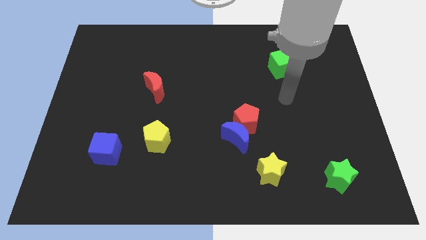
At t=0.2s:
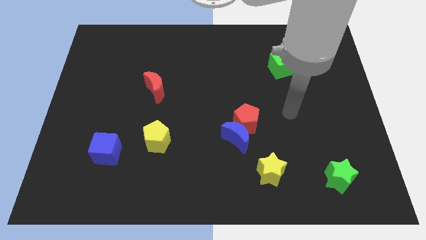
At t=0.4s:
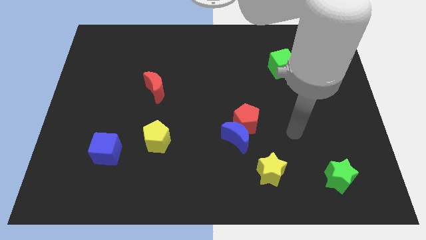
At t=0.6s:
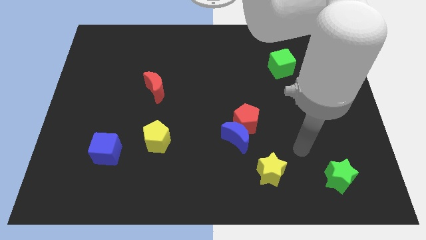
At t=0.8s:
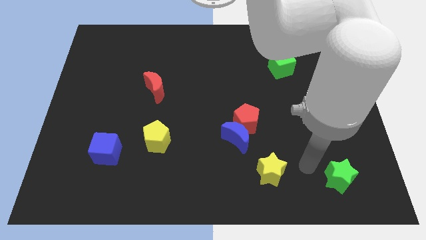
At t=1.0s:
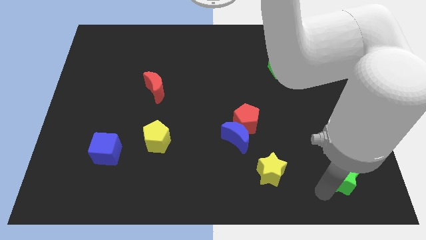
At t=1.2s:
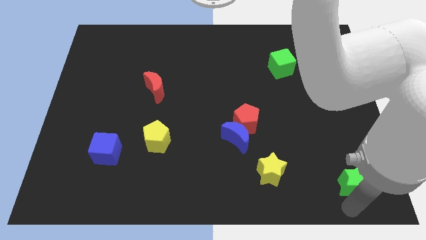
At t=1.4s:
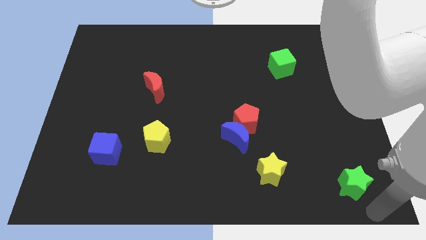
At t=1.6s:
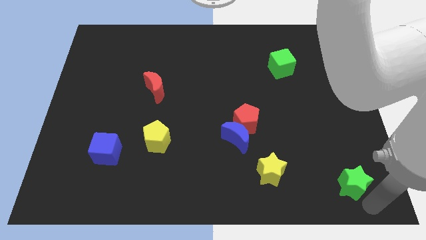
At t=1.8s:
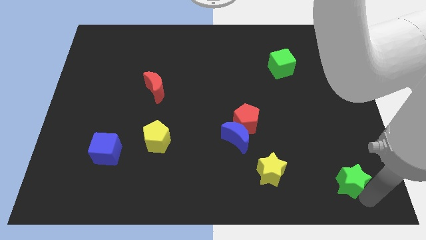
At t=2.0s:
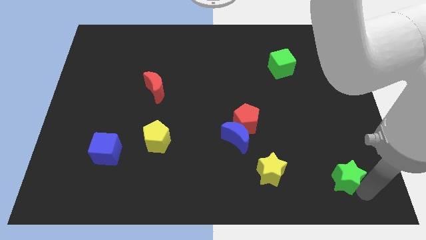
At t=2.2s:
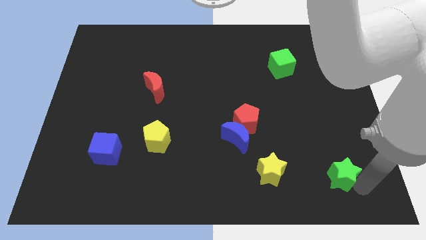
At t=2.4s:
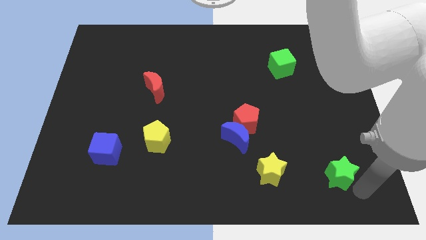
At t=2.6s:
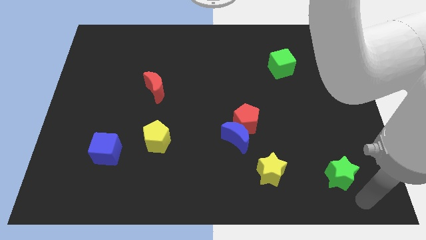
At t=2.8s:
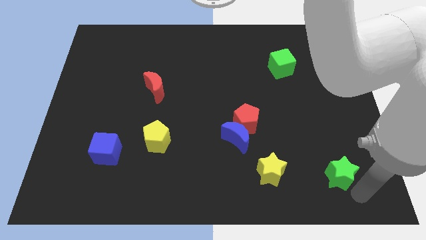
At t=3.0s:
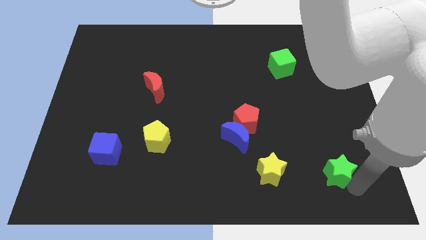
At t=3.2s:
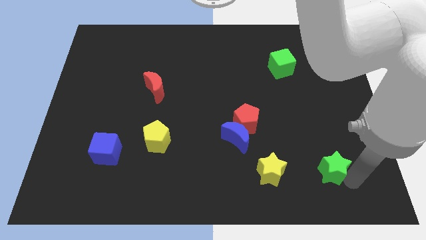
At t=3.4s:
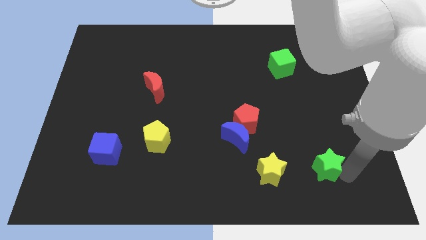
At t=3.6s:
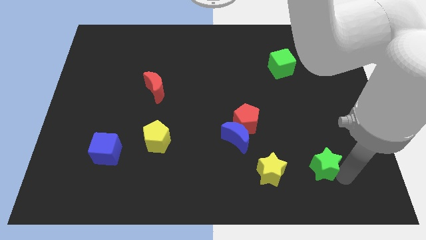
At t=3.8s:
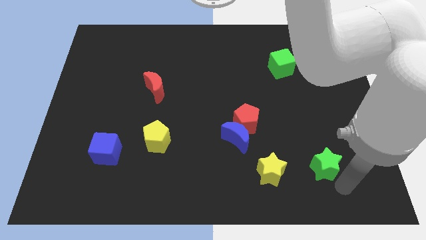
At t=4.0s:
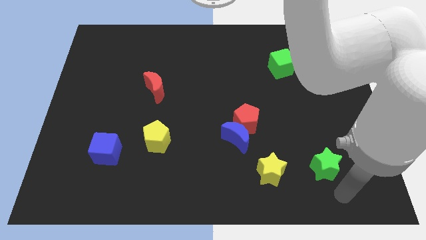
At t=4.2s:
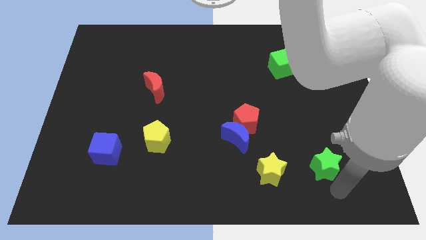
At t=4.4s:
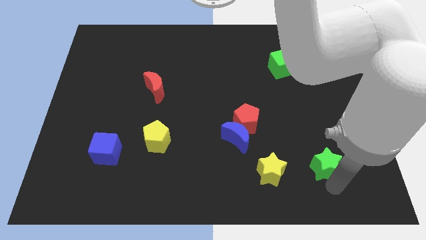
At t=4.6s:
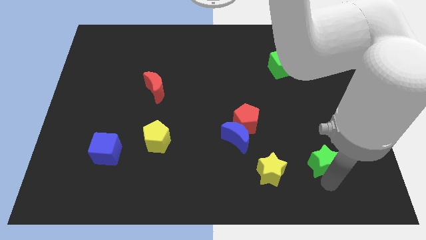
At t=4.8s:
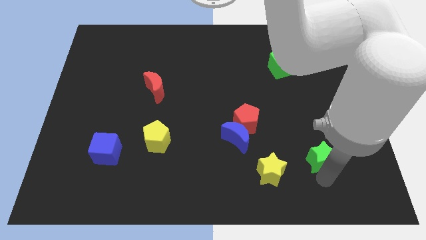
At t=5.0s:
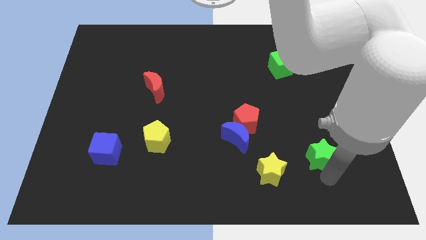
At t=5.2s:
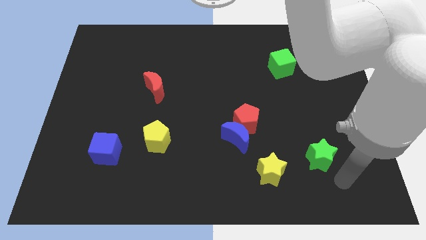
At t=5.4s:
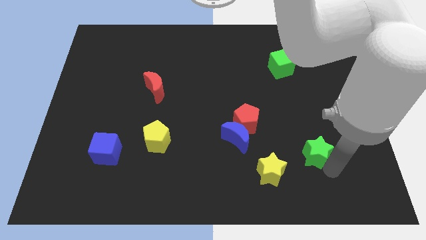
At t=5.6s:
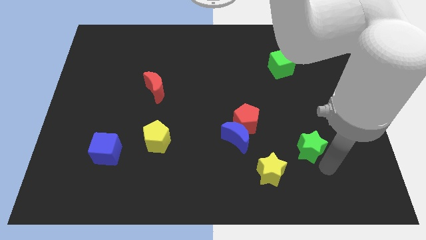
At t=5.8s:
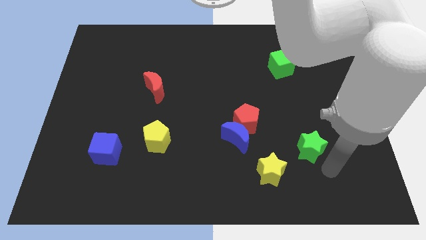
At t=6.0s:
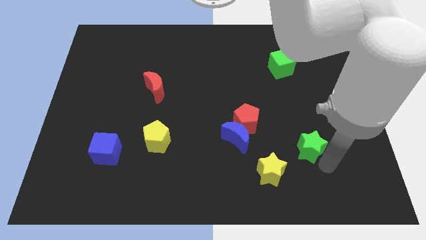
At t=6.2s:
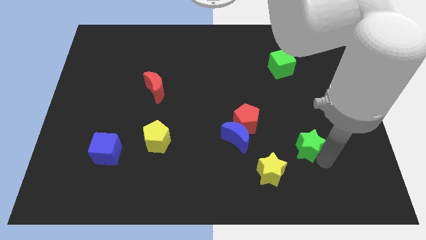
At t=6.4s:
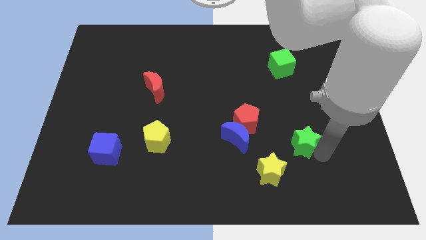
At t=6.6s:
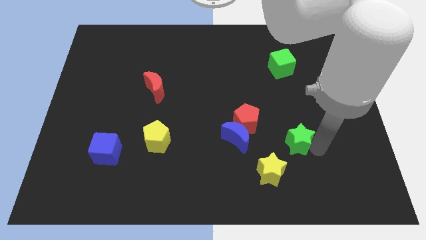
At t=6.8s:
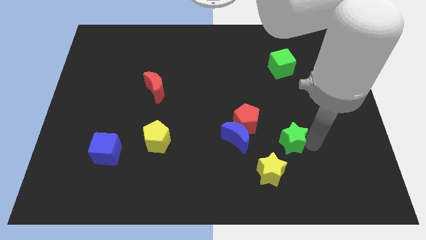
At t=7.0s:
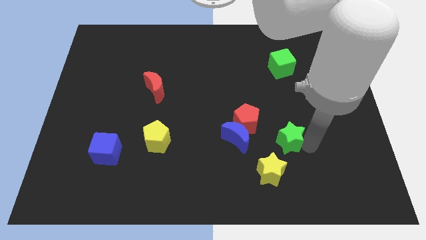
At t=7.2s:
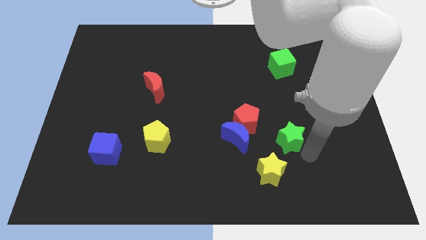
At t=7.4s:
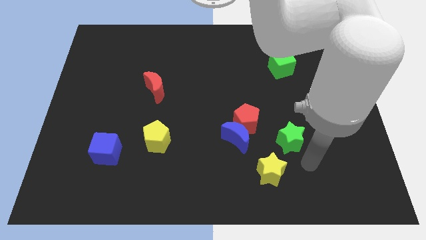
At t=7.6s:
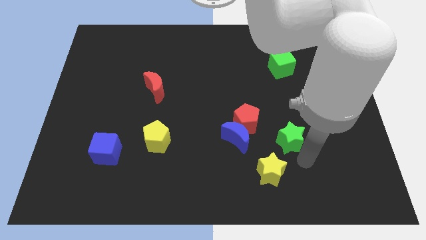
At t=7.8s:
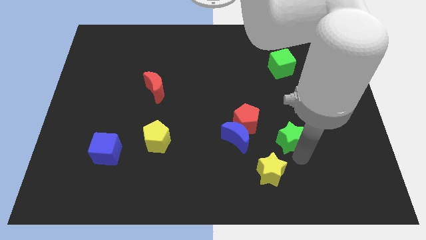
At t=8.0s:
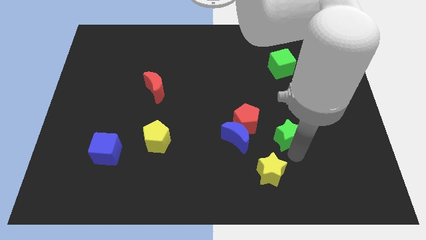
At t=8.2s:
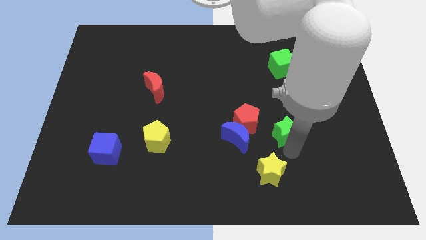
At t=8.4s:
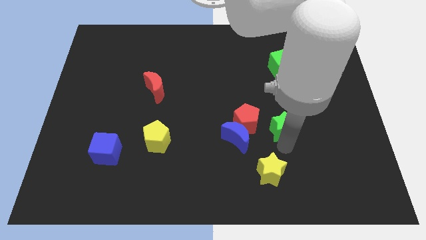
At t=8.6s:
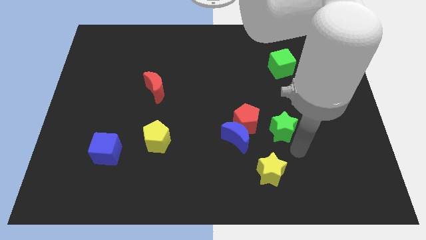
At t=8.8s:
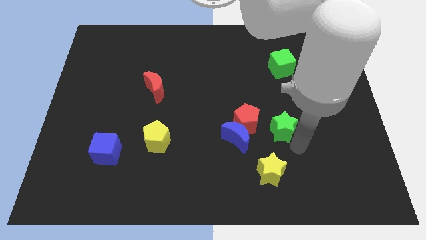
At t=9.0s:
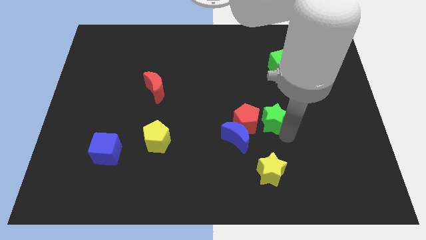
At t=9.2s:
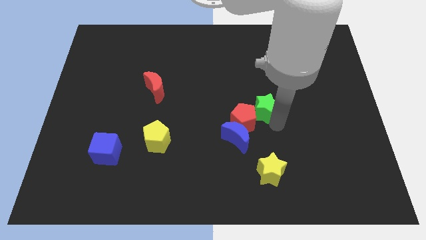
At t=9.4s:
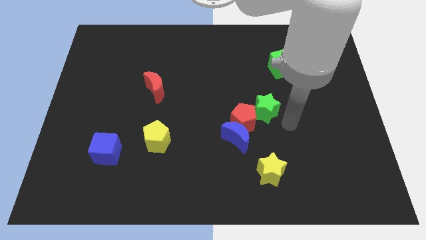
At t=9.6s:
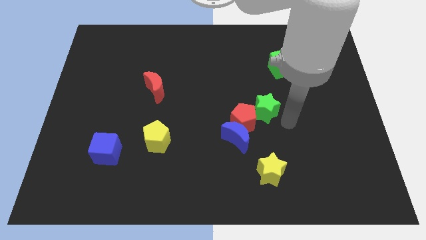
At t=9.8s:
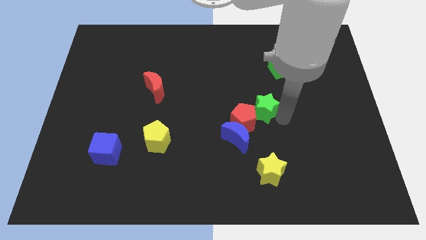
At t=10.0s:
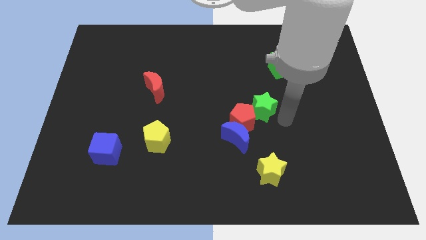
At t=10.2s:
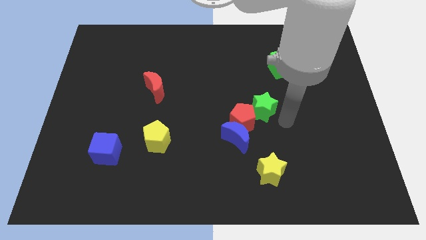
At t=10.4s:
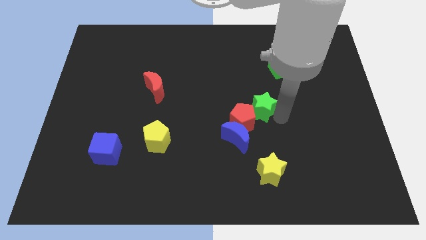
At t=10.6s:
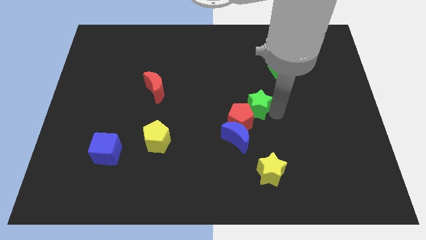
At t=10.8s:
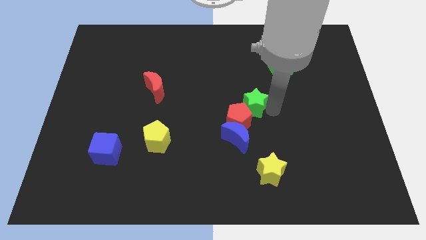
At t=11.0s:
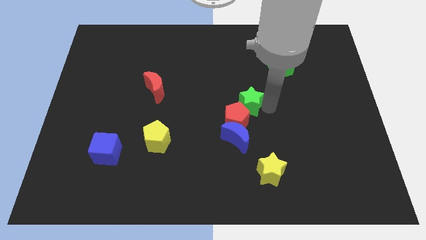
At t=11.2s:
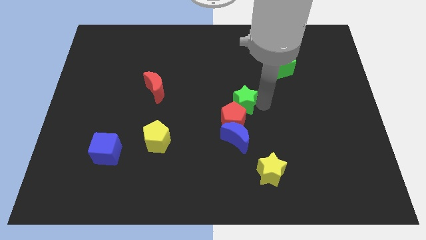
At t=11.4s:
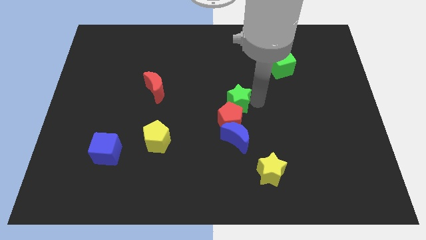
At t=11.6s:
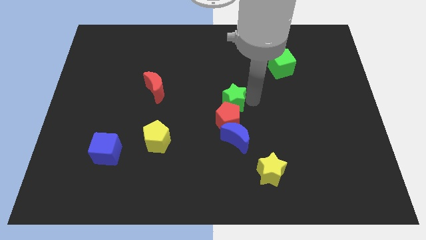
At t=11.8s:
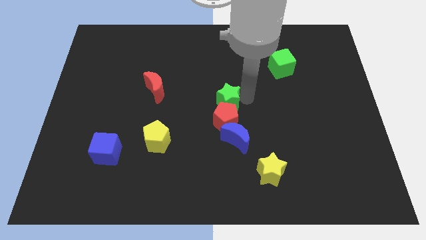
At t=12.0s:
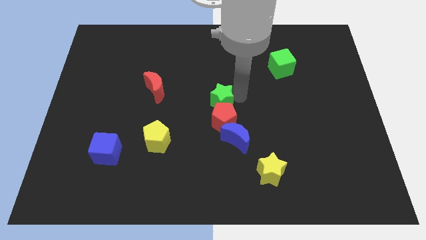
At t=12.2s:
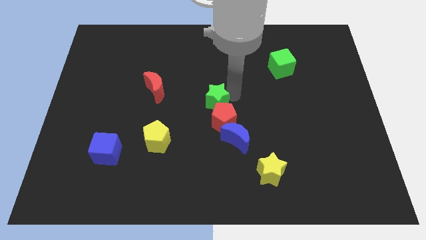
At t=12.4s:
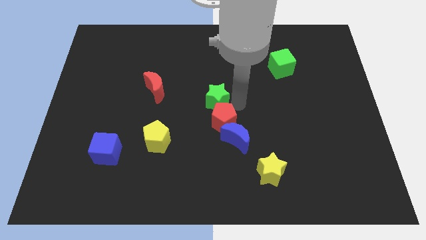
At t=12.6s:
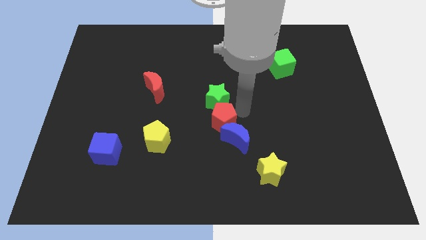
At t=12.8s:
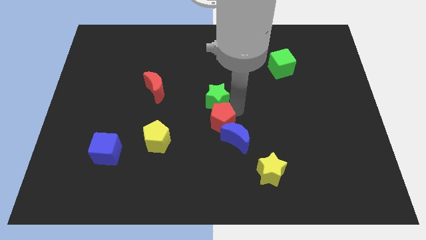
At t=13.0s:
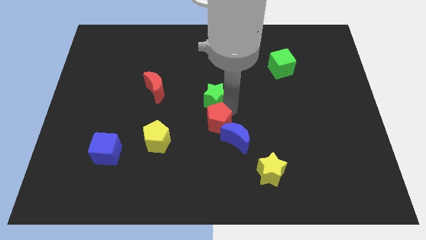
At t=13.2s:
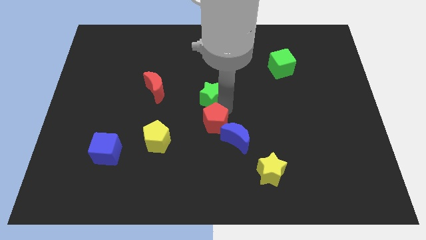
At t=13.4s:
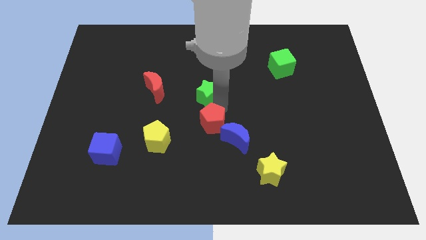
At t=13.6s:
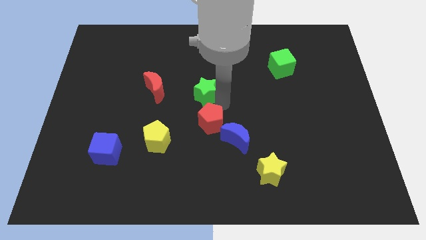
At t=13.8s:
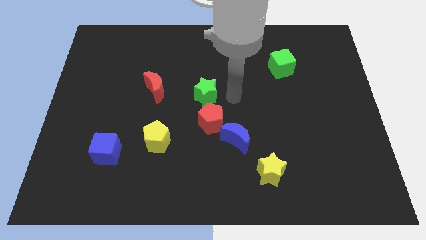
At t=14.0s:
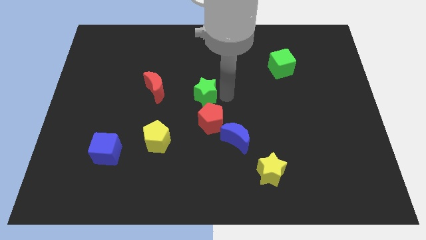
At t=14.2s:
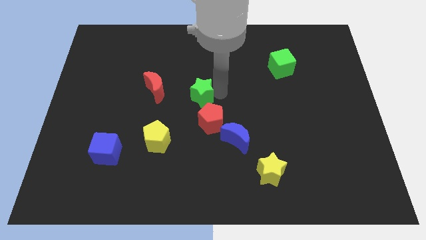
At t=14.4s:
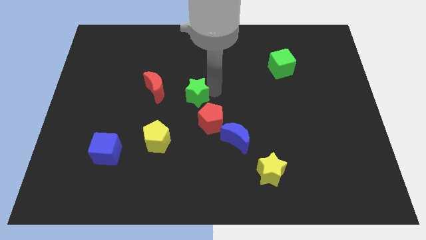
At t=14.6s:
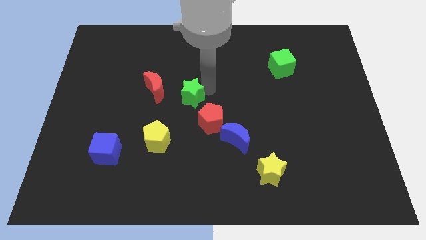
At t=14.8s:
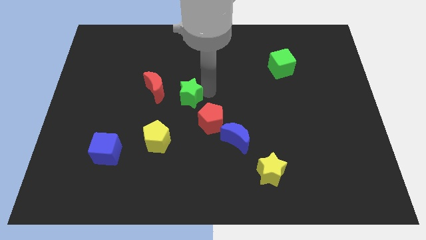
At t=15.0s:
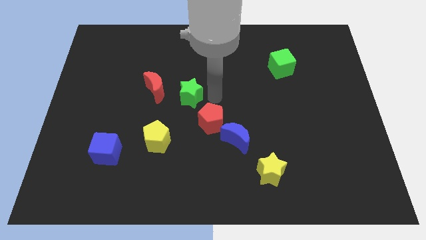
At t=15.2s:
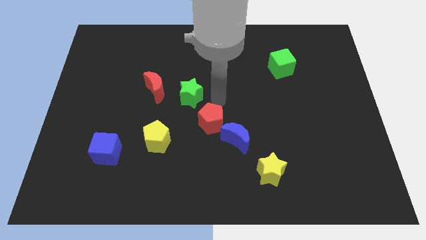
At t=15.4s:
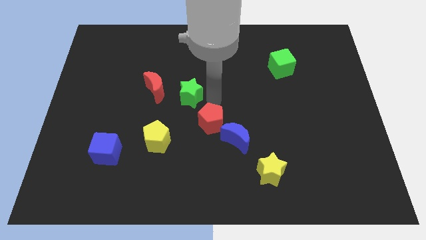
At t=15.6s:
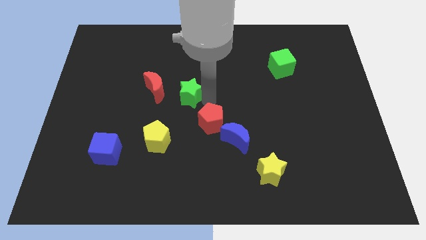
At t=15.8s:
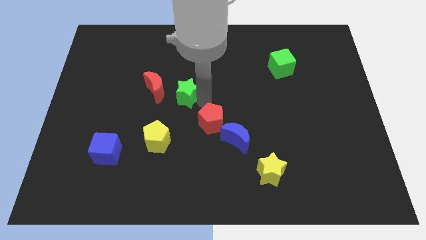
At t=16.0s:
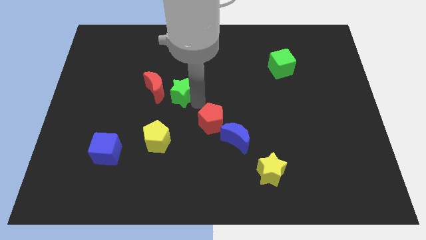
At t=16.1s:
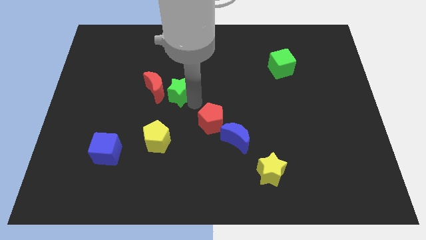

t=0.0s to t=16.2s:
push the green star close to the red moon

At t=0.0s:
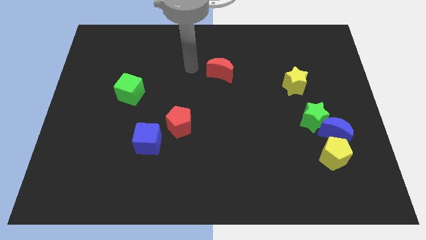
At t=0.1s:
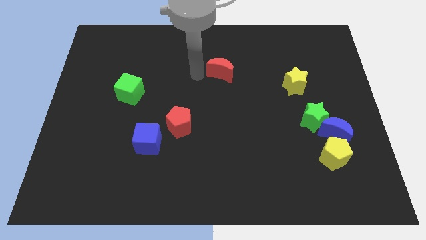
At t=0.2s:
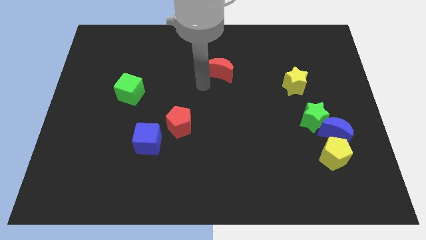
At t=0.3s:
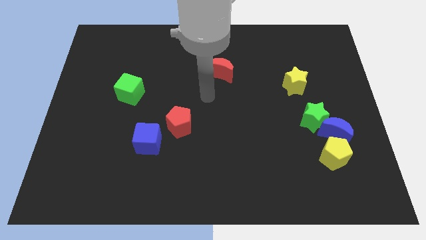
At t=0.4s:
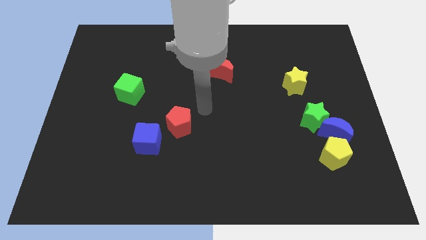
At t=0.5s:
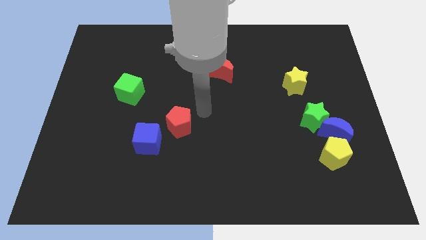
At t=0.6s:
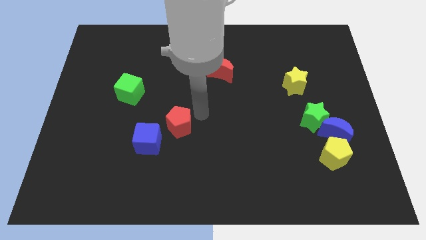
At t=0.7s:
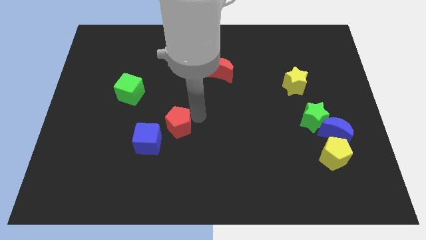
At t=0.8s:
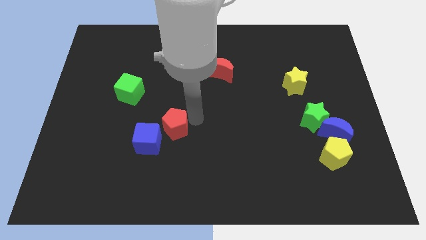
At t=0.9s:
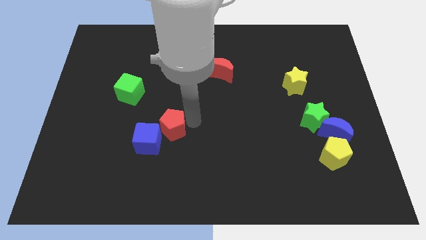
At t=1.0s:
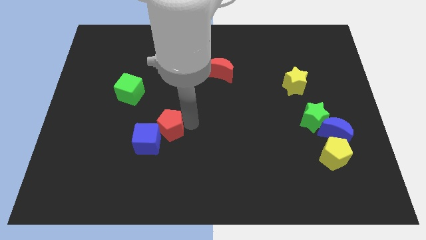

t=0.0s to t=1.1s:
slide the red pentagon to the blue cube
